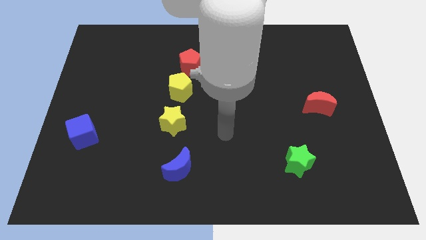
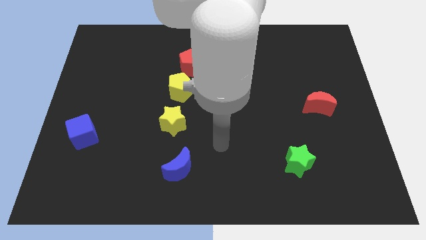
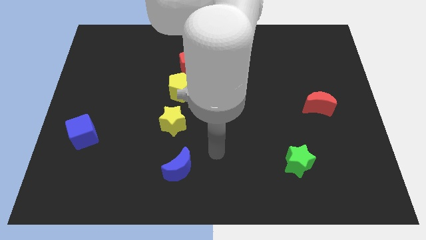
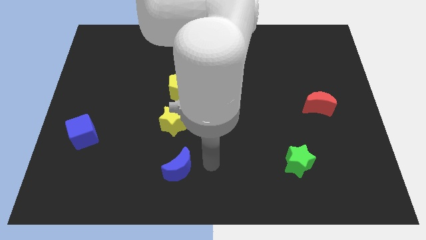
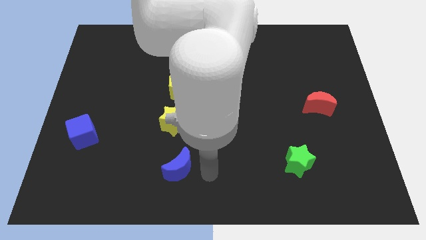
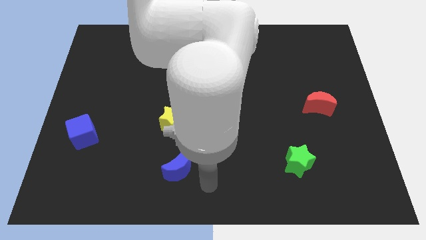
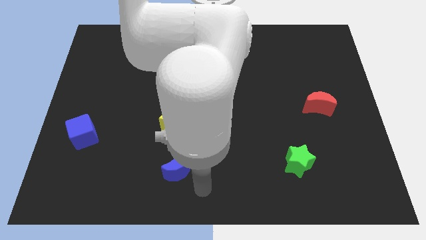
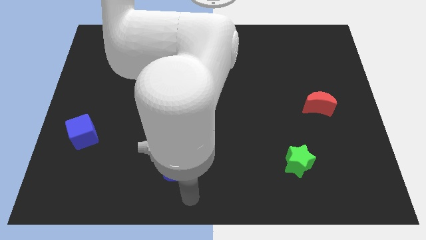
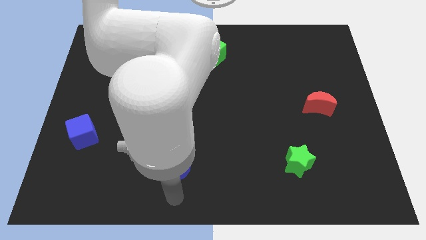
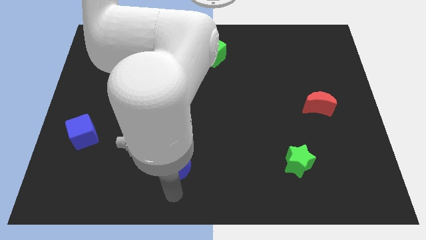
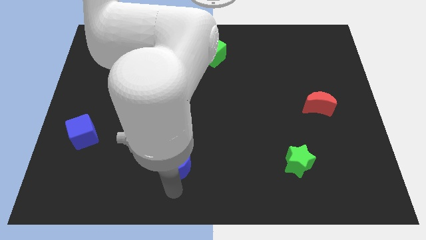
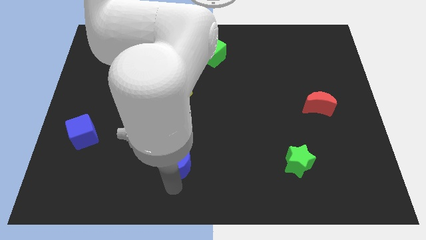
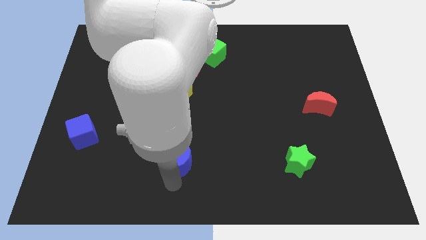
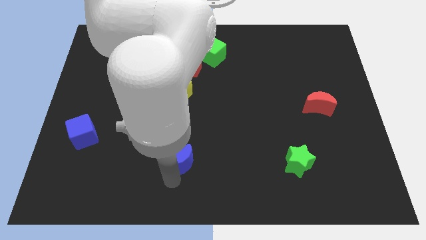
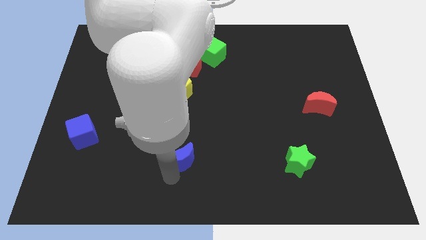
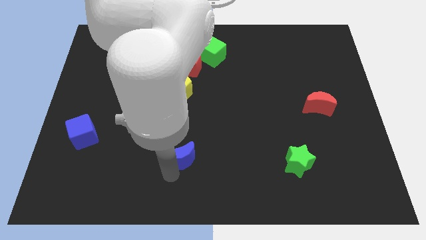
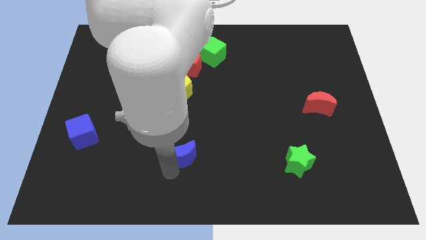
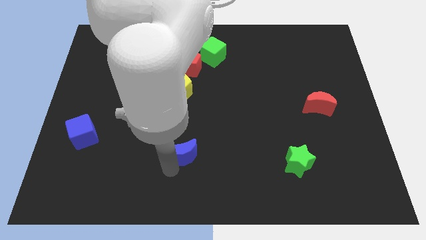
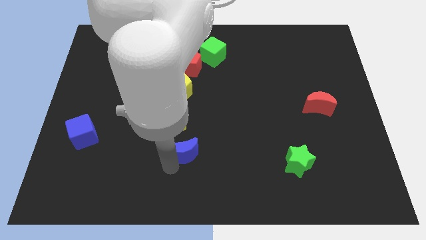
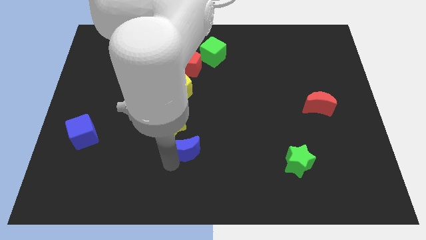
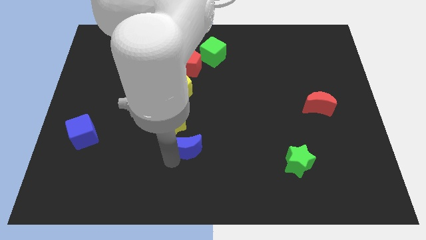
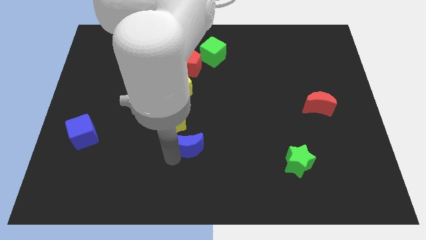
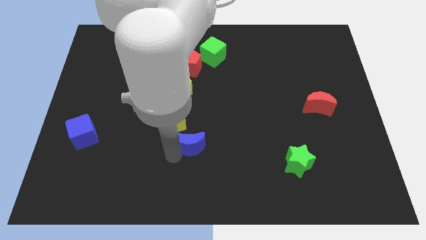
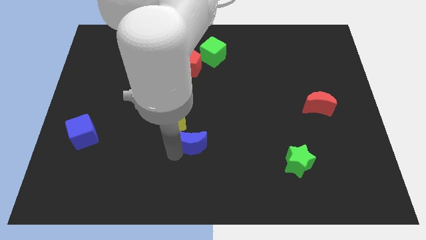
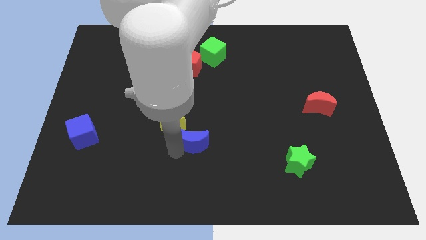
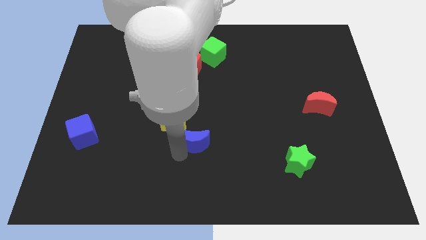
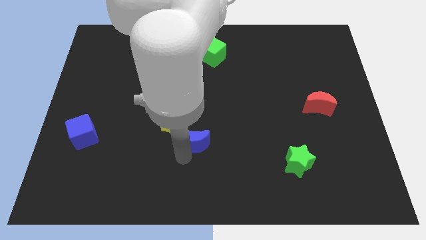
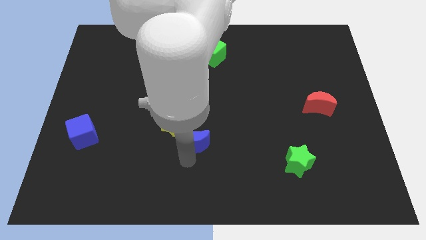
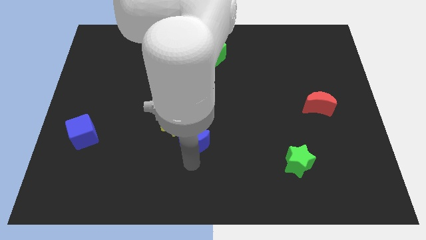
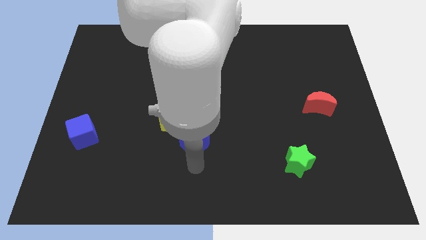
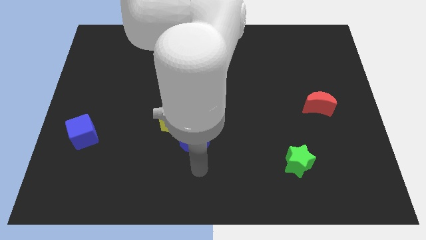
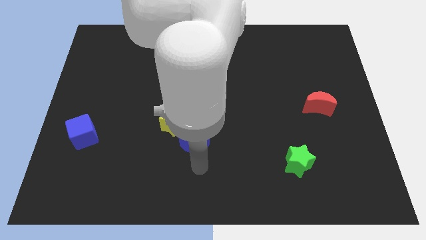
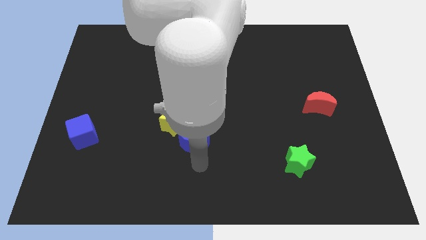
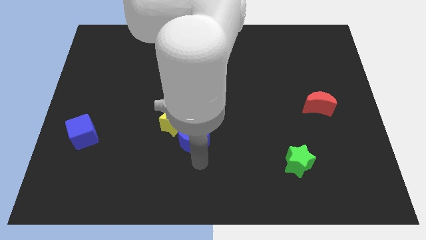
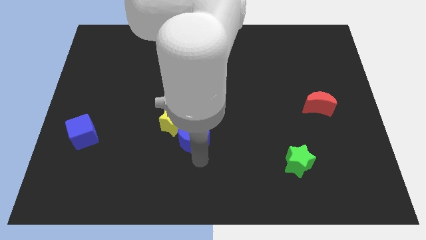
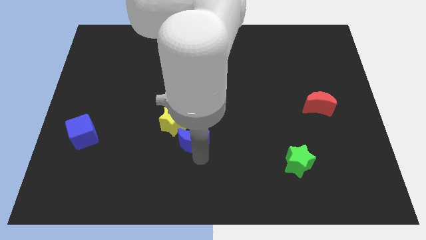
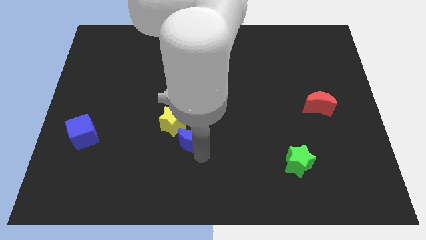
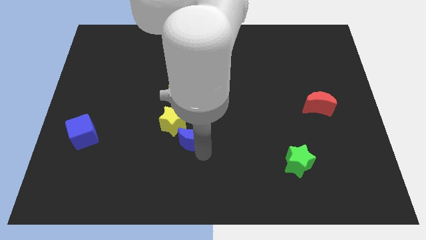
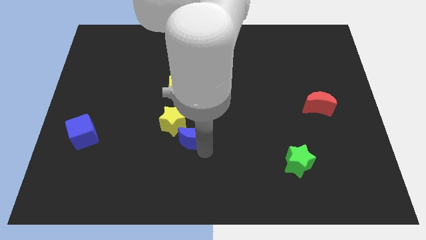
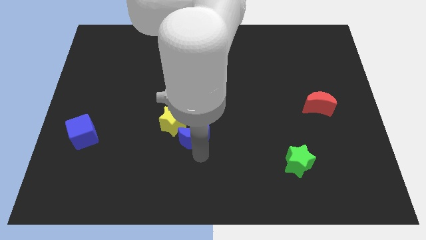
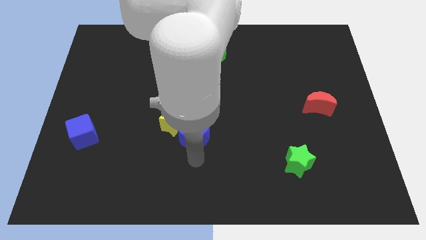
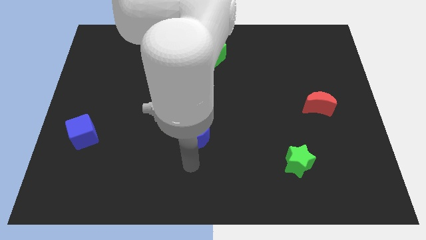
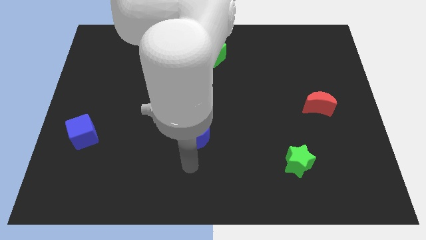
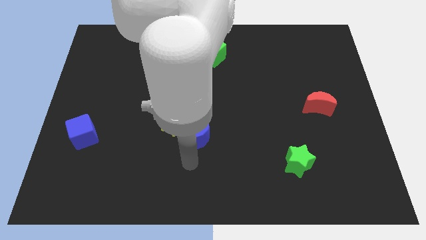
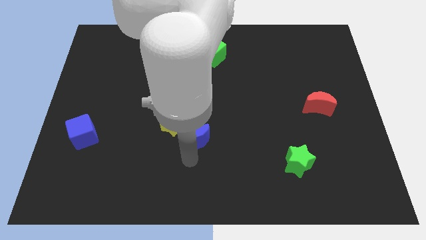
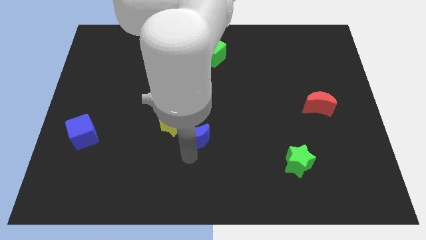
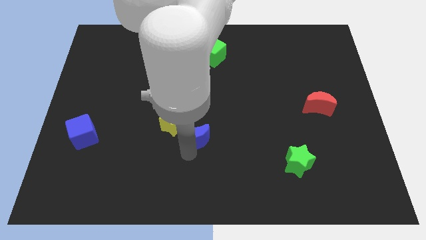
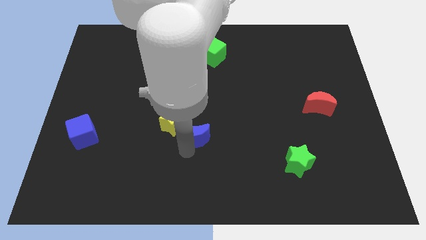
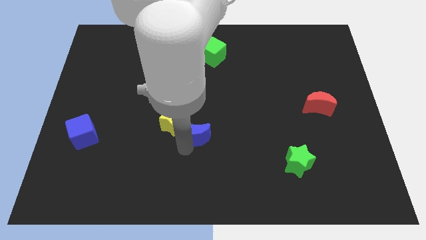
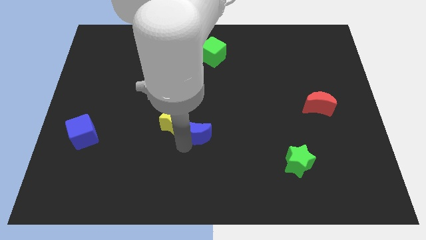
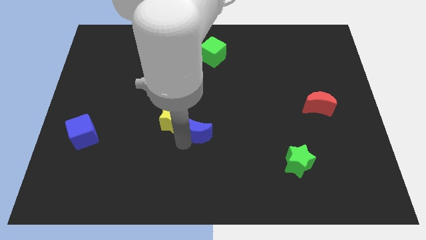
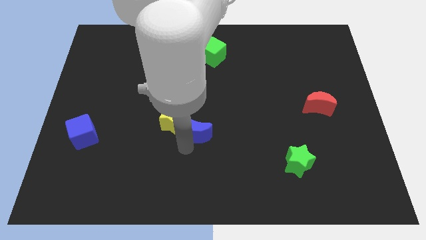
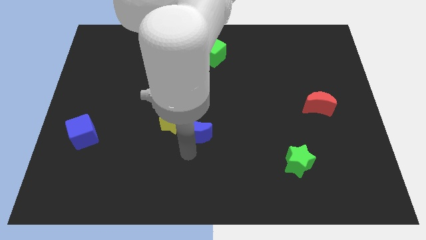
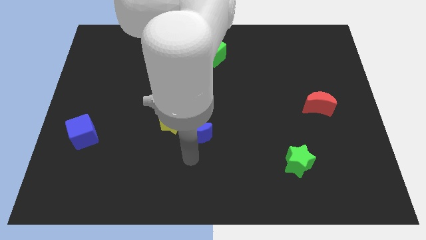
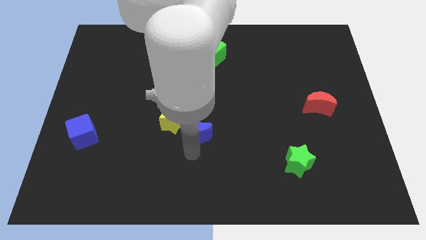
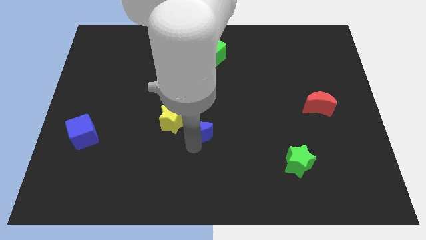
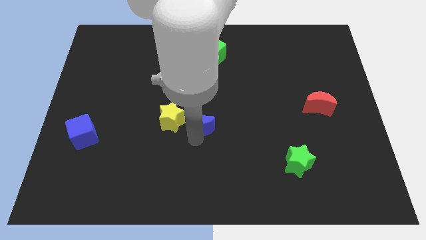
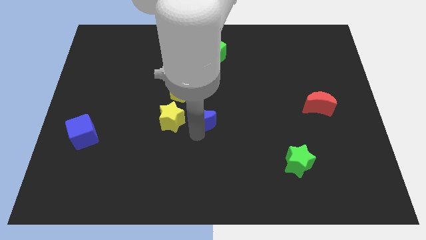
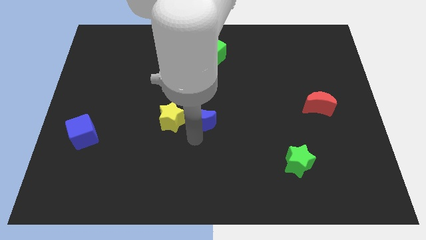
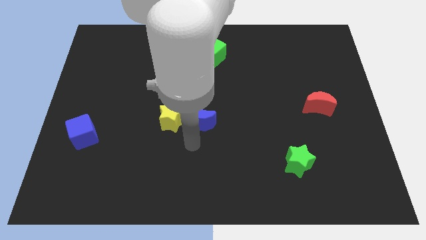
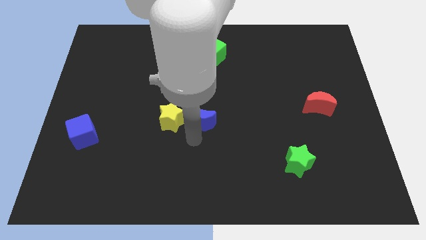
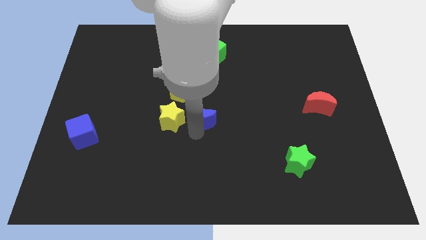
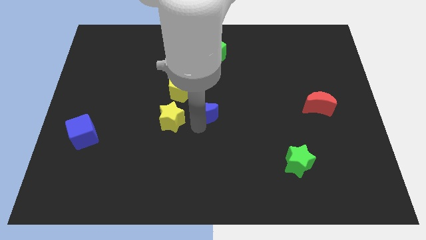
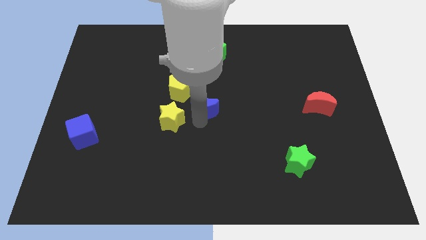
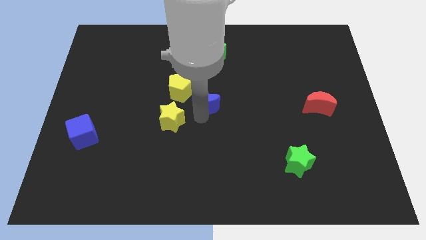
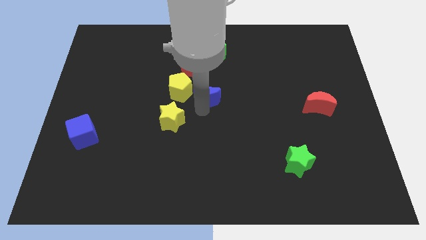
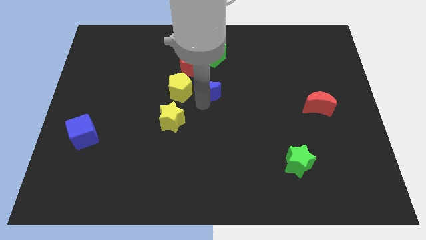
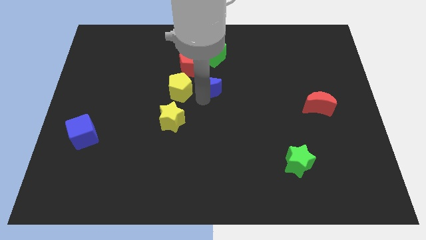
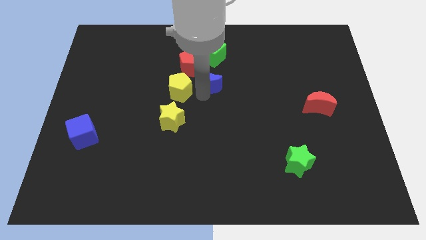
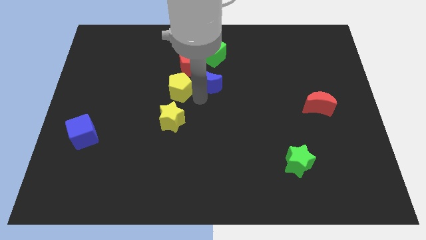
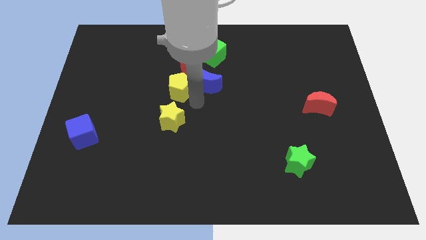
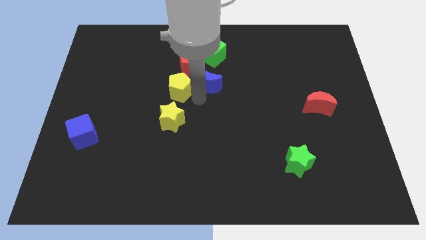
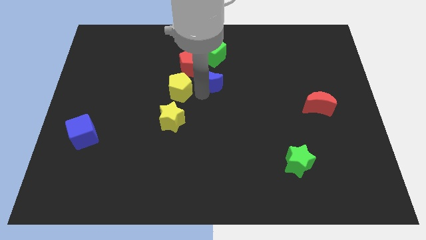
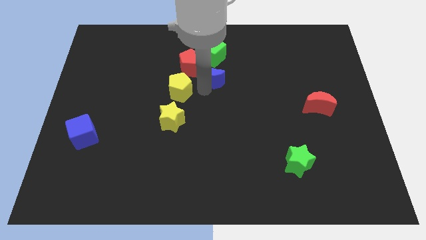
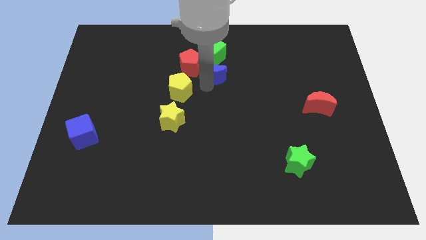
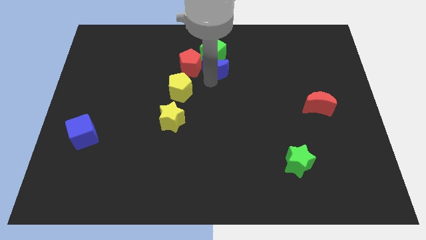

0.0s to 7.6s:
move the blue moon towards the green cube
